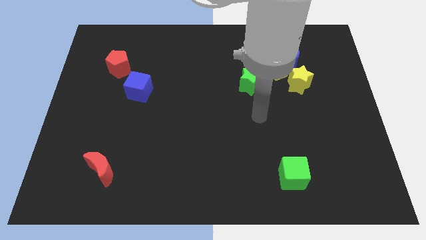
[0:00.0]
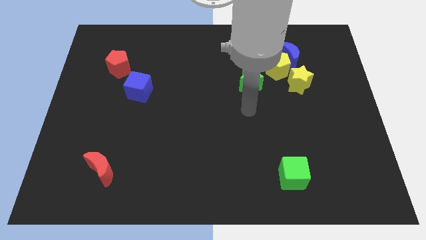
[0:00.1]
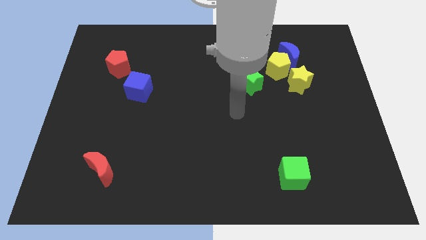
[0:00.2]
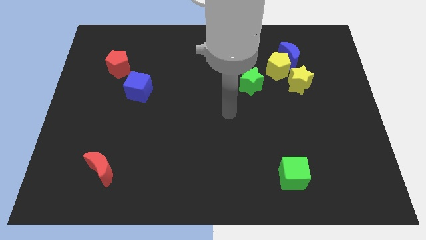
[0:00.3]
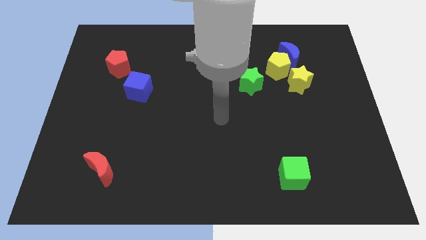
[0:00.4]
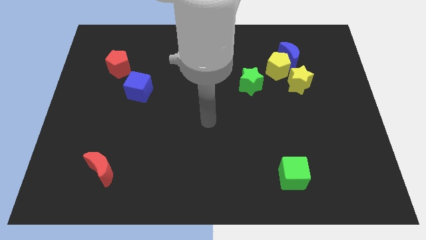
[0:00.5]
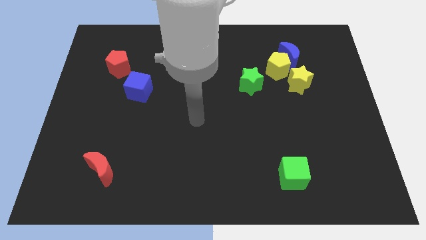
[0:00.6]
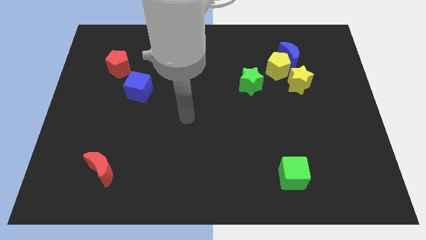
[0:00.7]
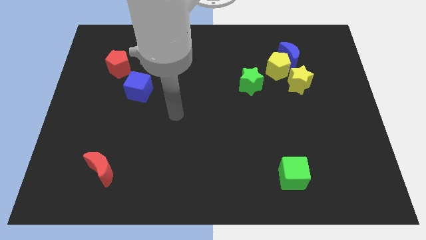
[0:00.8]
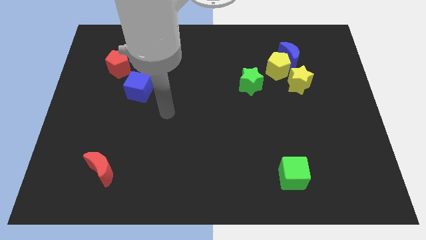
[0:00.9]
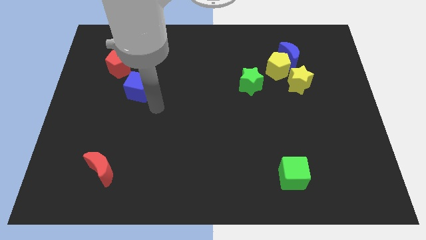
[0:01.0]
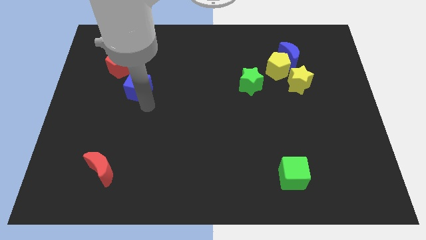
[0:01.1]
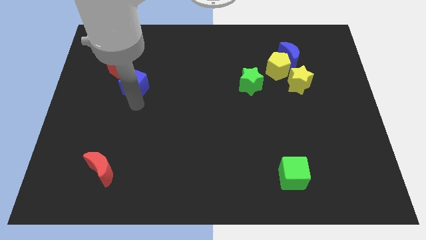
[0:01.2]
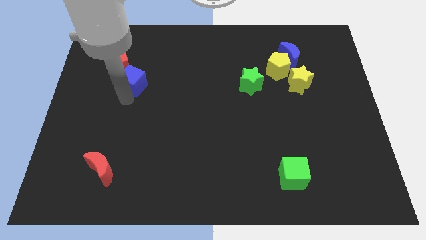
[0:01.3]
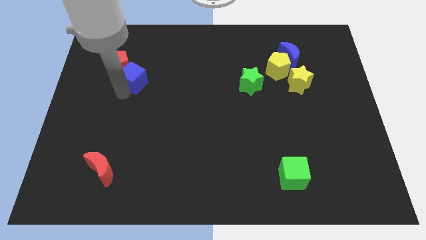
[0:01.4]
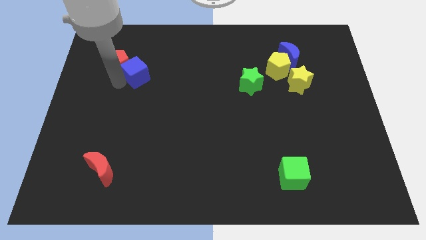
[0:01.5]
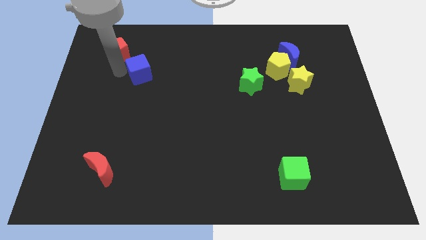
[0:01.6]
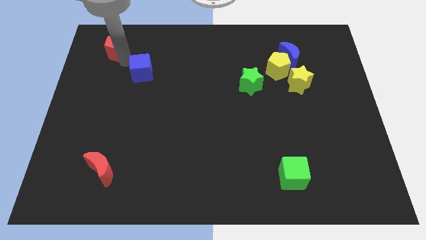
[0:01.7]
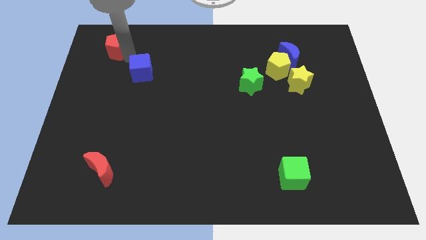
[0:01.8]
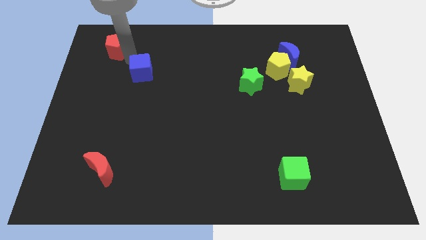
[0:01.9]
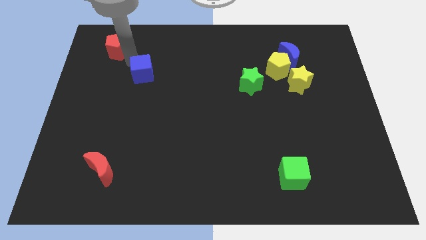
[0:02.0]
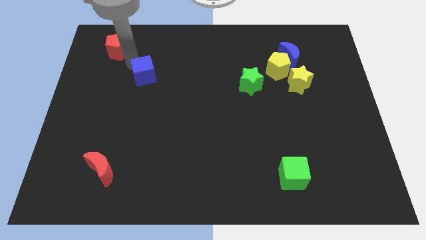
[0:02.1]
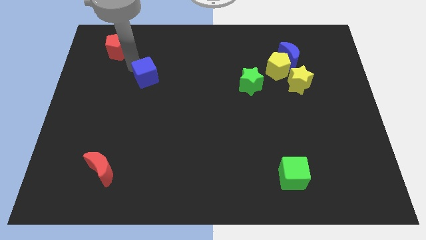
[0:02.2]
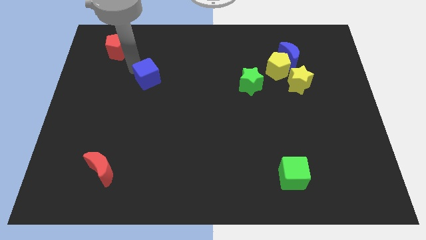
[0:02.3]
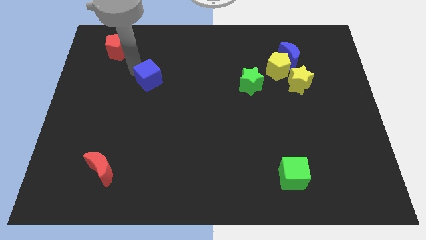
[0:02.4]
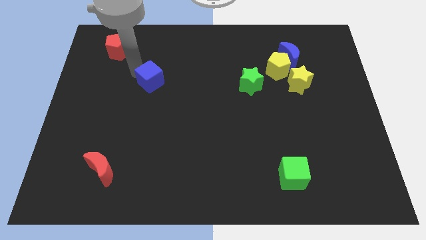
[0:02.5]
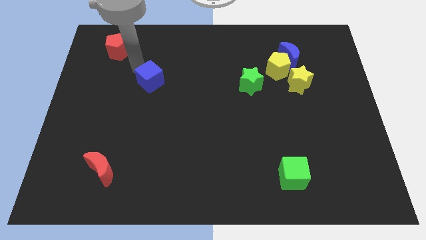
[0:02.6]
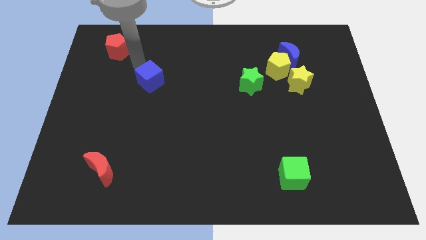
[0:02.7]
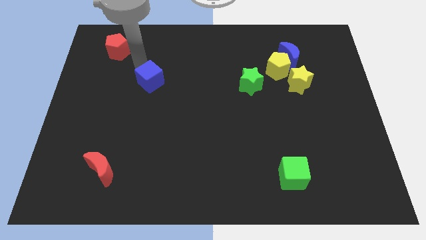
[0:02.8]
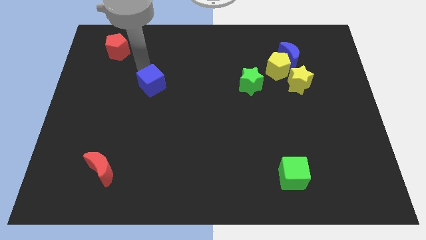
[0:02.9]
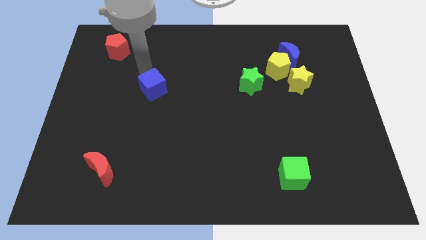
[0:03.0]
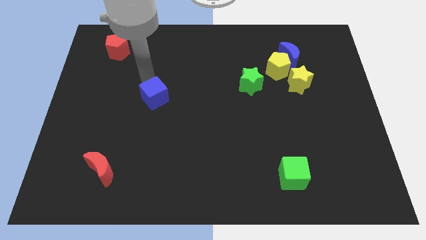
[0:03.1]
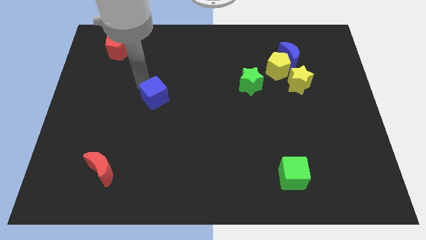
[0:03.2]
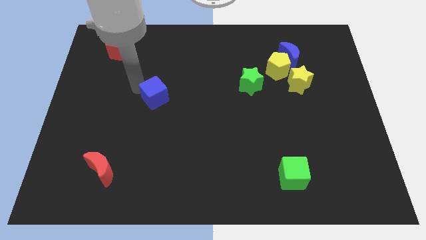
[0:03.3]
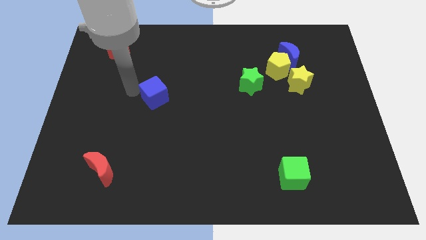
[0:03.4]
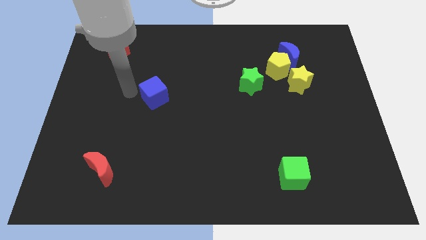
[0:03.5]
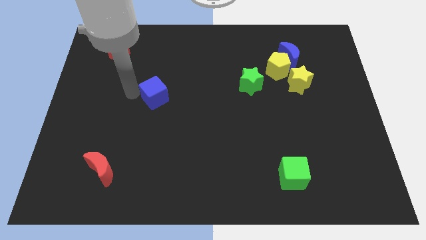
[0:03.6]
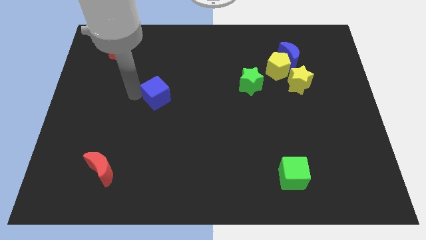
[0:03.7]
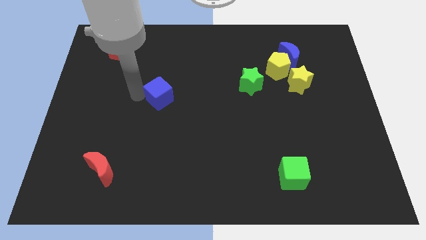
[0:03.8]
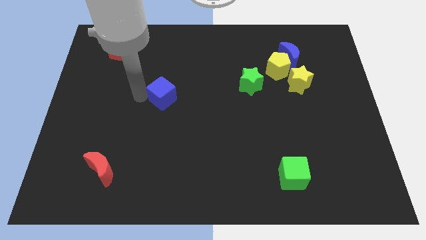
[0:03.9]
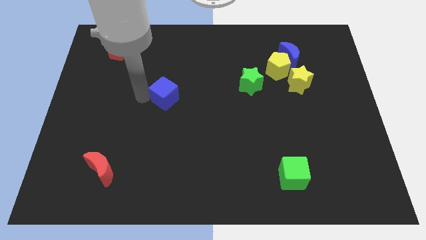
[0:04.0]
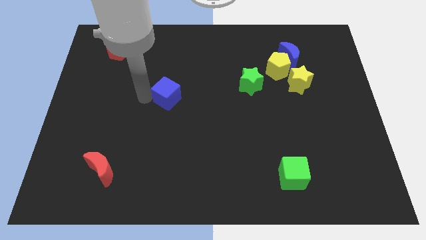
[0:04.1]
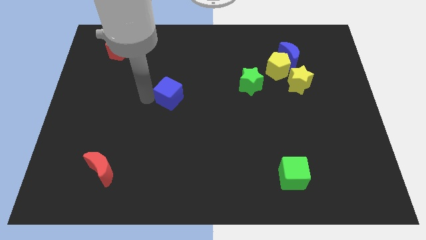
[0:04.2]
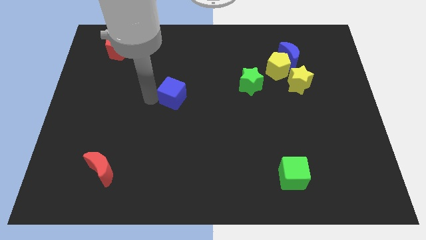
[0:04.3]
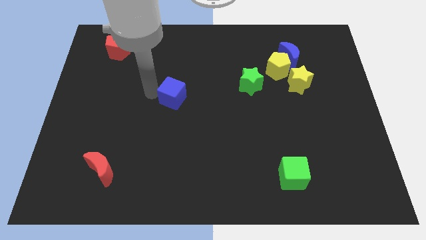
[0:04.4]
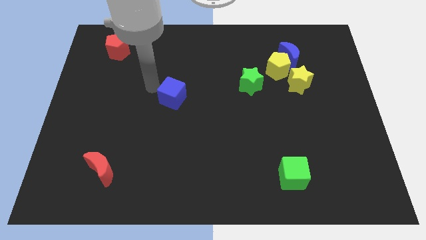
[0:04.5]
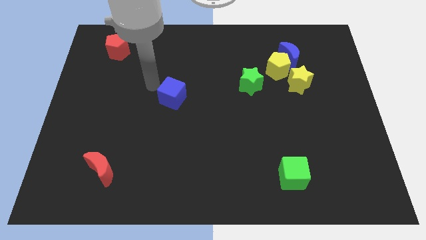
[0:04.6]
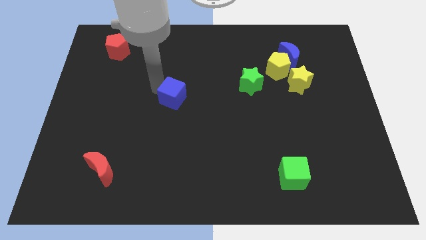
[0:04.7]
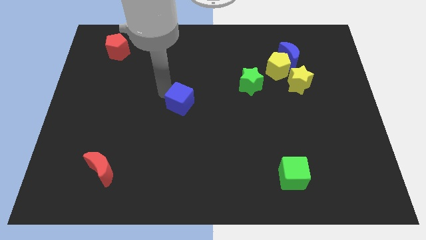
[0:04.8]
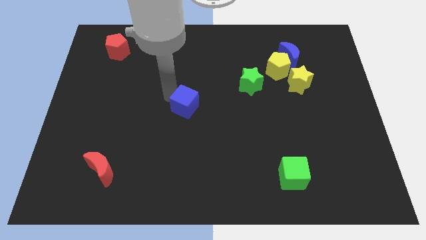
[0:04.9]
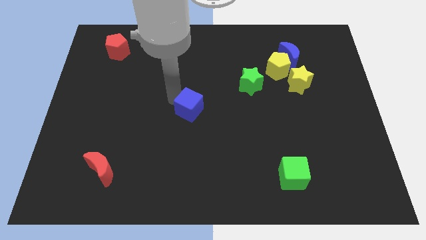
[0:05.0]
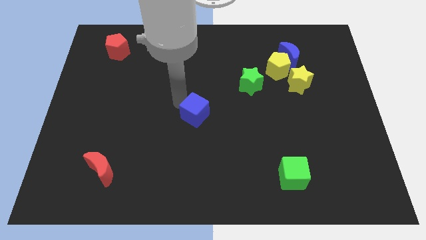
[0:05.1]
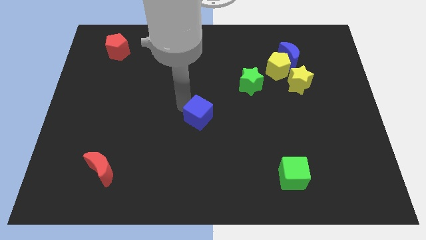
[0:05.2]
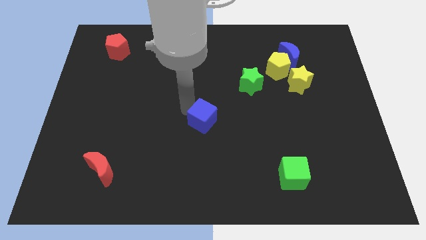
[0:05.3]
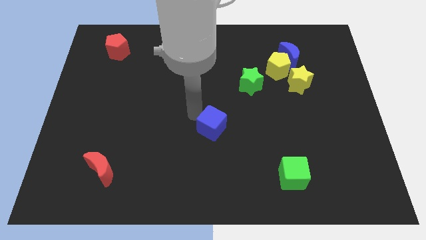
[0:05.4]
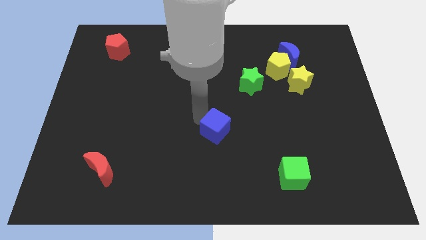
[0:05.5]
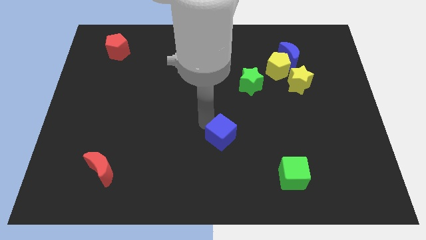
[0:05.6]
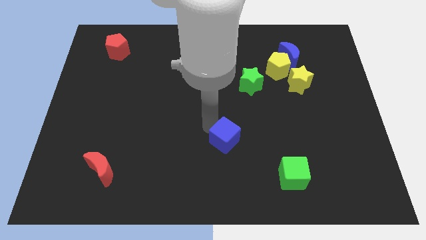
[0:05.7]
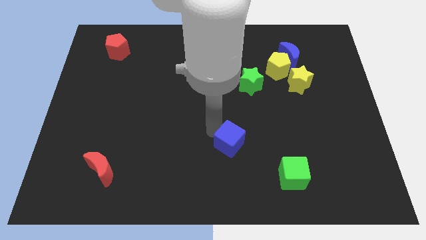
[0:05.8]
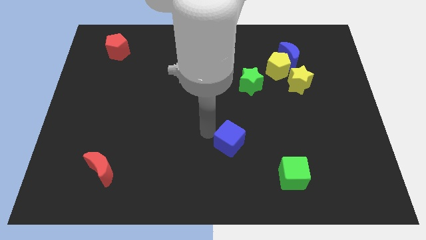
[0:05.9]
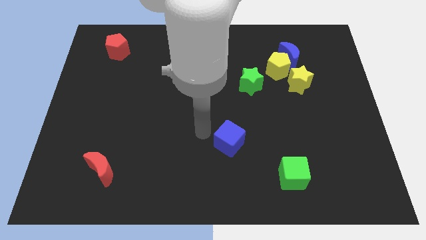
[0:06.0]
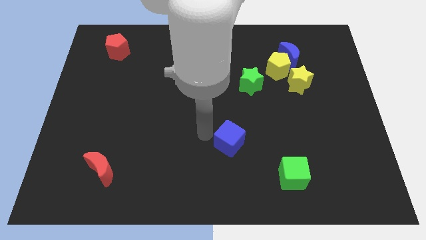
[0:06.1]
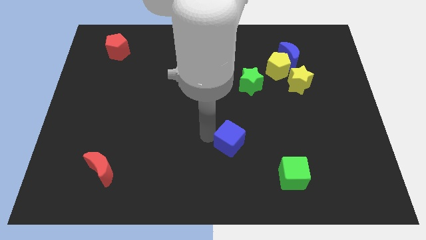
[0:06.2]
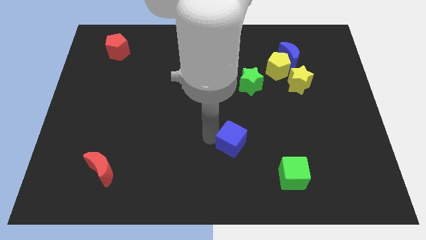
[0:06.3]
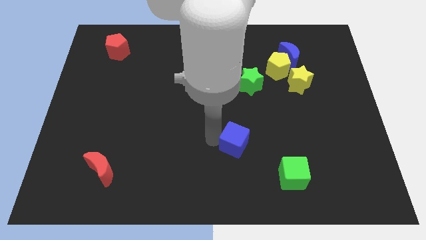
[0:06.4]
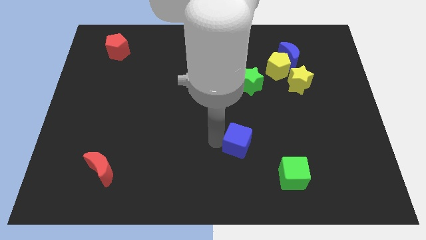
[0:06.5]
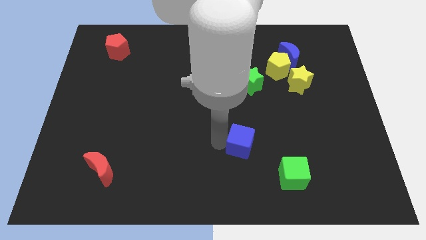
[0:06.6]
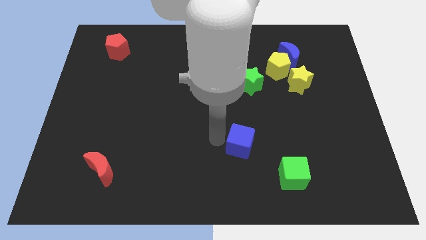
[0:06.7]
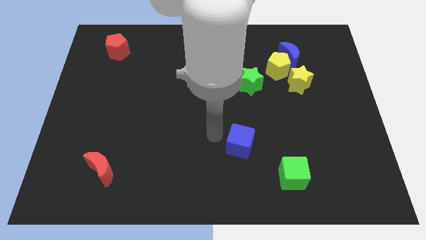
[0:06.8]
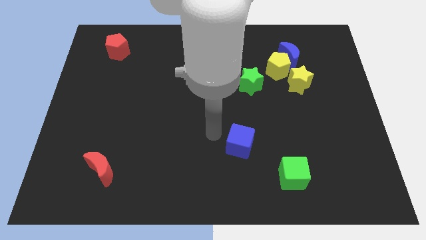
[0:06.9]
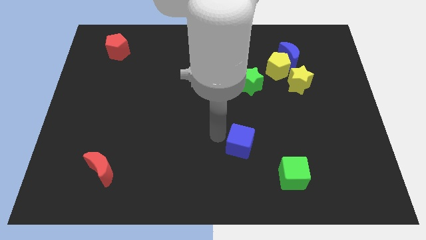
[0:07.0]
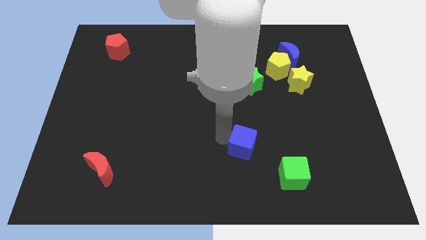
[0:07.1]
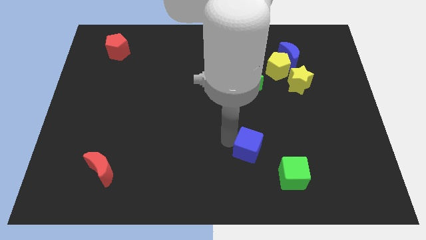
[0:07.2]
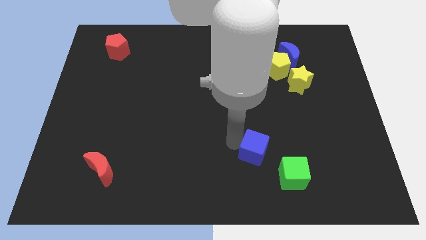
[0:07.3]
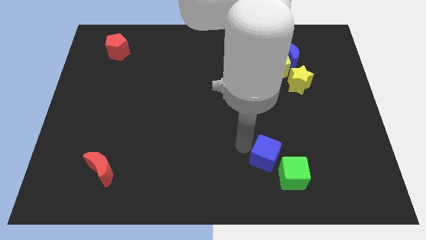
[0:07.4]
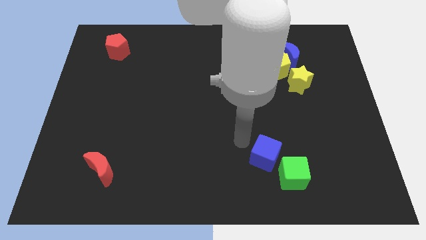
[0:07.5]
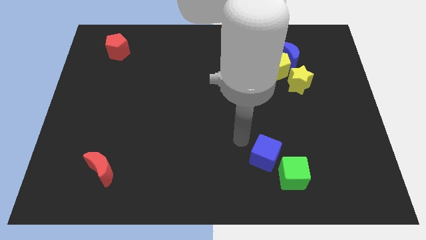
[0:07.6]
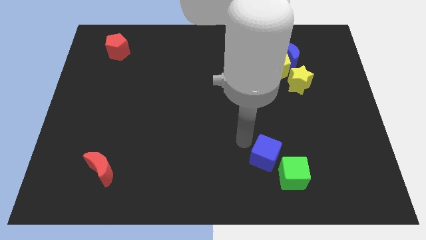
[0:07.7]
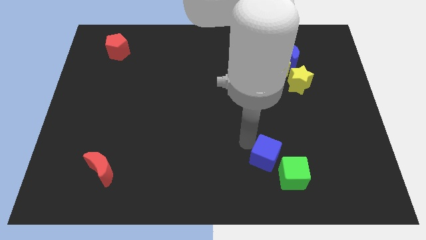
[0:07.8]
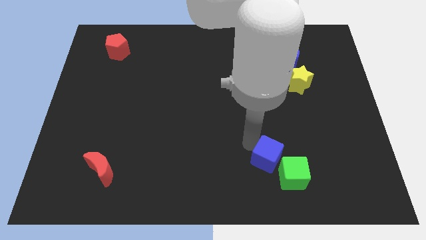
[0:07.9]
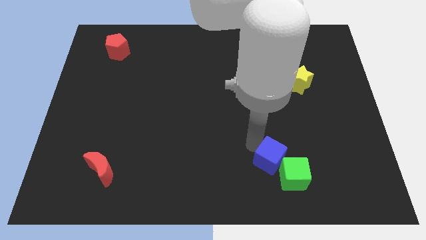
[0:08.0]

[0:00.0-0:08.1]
slide the blue cube next to the green cube
